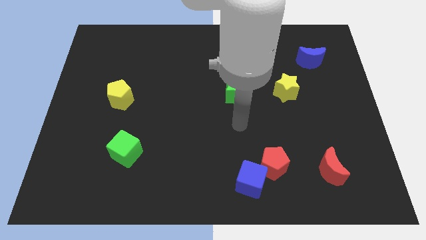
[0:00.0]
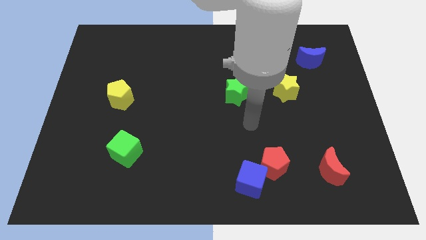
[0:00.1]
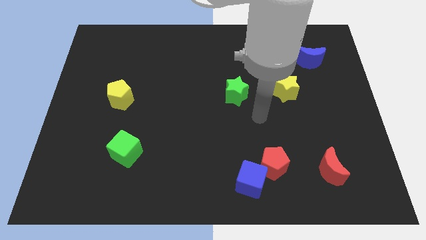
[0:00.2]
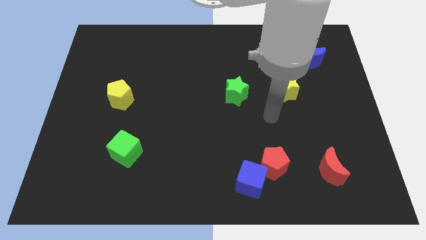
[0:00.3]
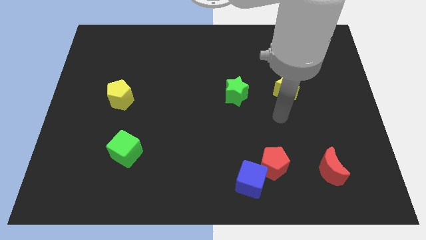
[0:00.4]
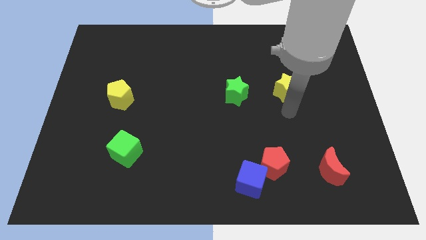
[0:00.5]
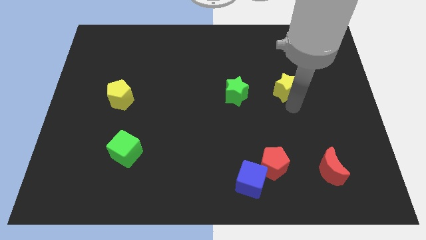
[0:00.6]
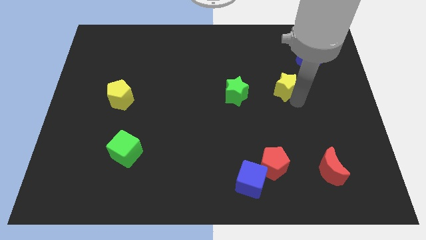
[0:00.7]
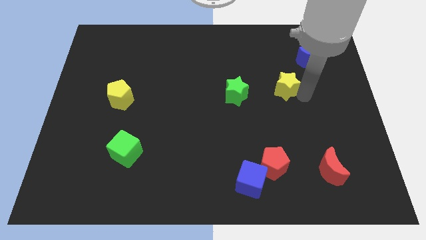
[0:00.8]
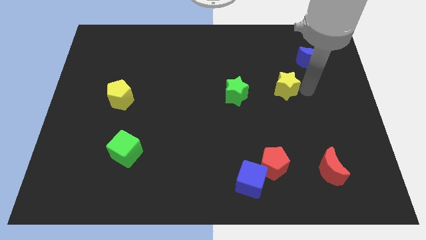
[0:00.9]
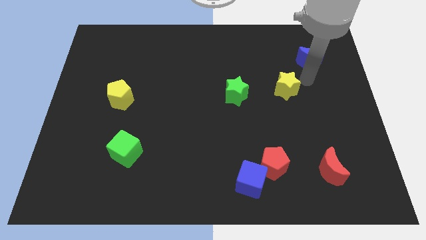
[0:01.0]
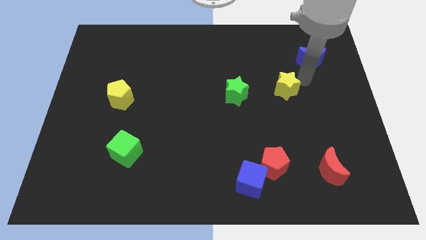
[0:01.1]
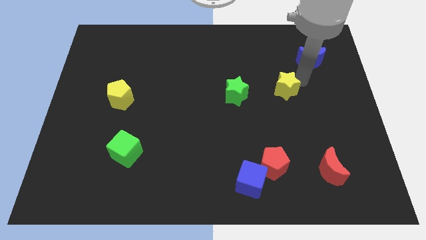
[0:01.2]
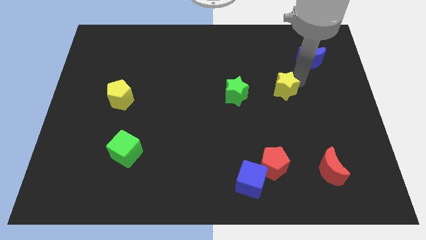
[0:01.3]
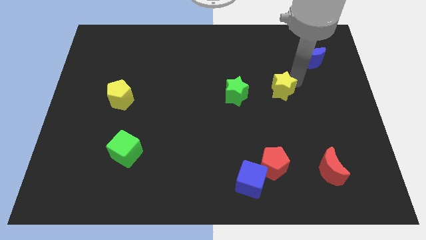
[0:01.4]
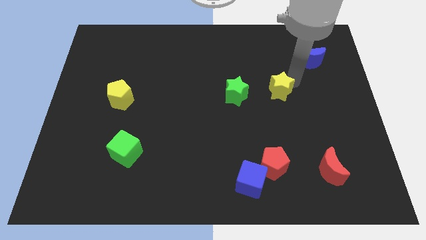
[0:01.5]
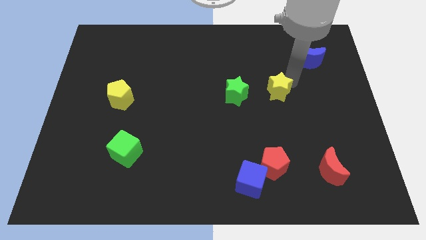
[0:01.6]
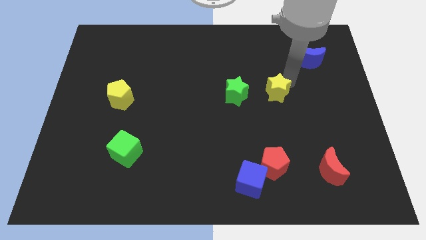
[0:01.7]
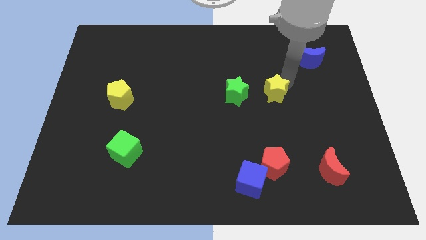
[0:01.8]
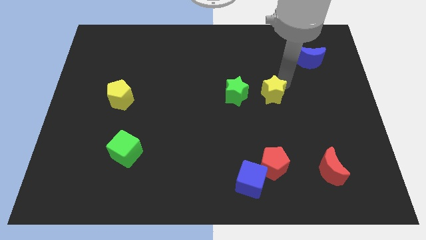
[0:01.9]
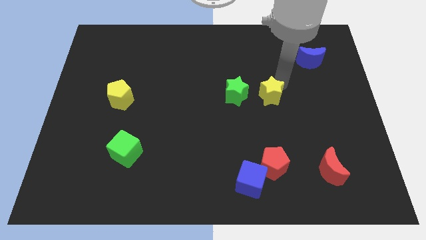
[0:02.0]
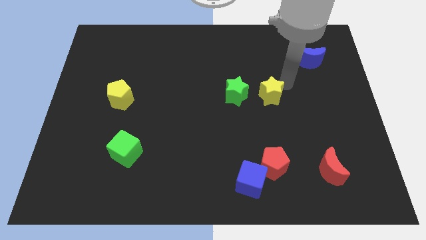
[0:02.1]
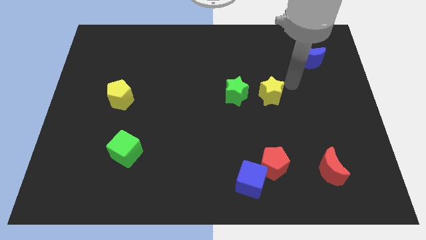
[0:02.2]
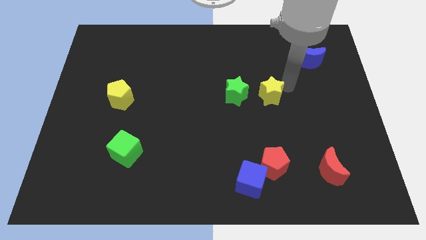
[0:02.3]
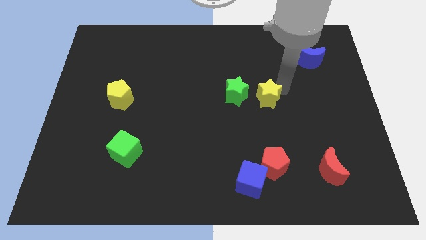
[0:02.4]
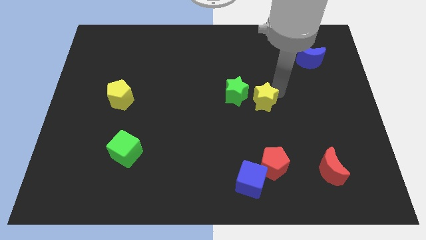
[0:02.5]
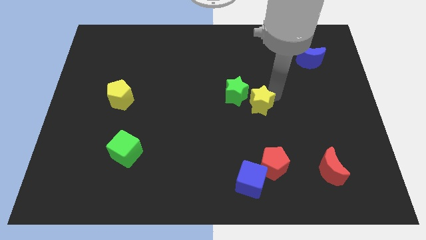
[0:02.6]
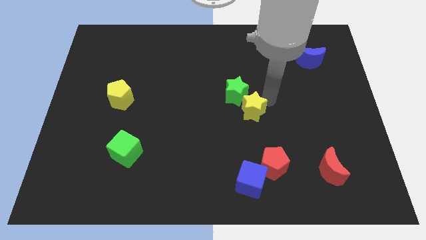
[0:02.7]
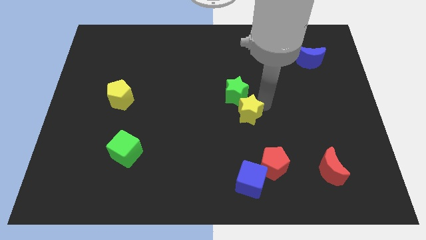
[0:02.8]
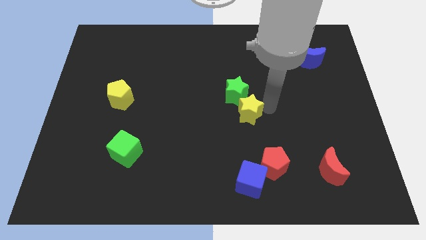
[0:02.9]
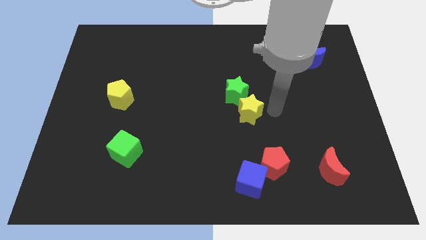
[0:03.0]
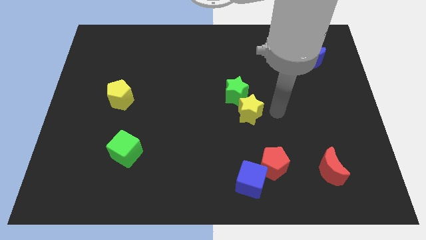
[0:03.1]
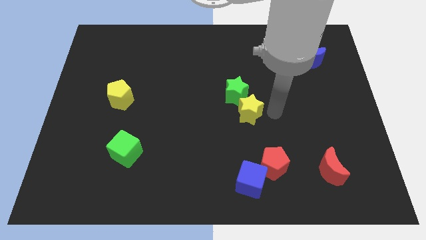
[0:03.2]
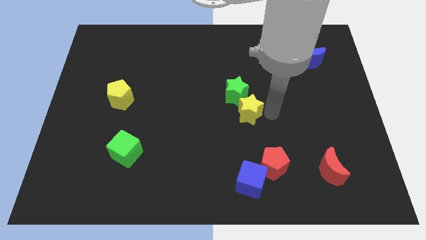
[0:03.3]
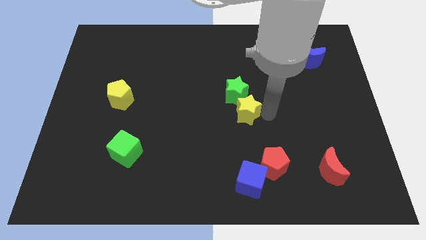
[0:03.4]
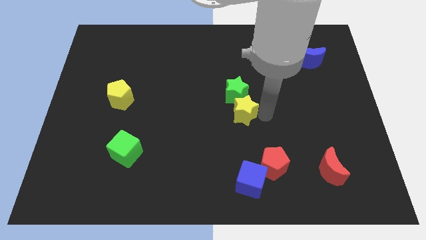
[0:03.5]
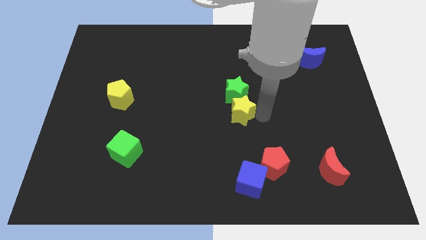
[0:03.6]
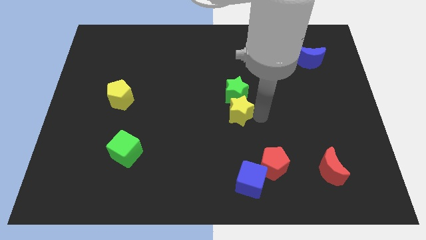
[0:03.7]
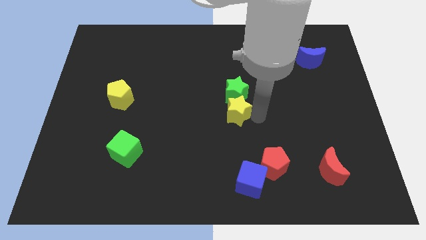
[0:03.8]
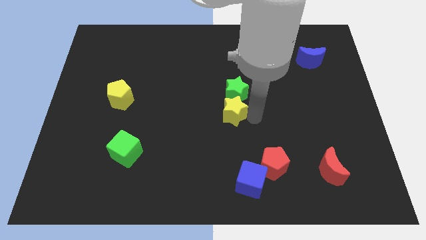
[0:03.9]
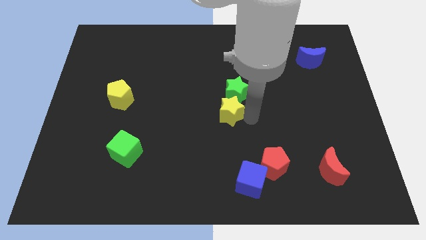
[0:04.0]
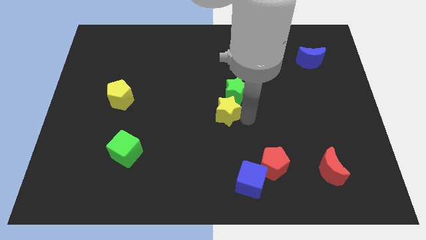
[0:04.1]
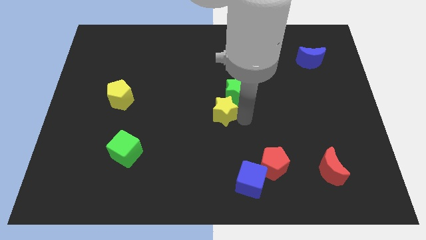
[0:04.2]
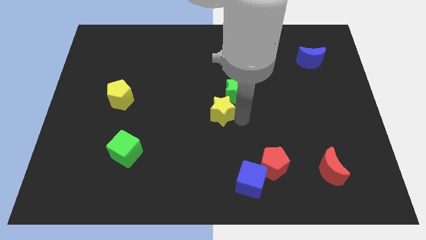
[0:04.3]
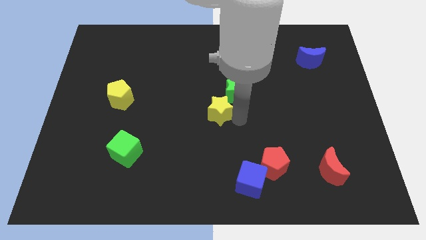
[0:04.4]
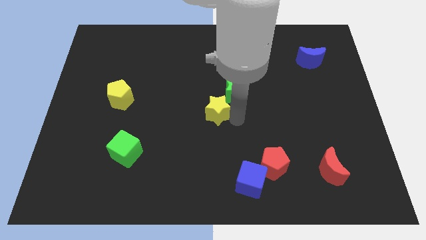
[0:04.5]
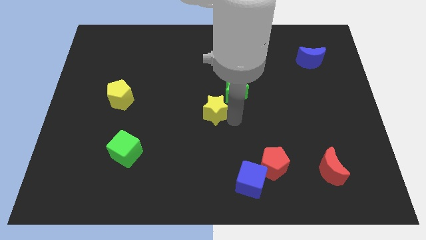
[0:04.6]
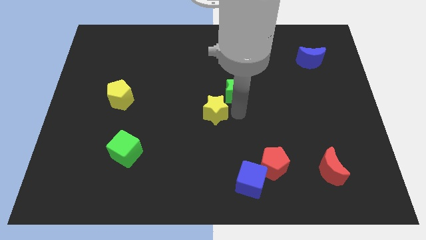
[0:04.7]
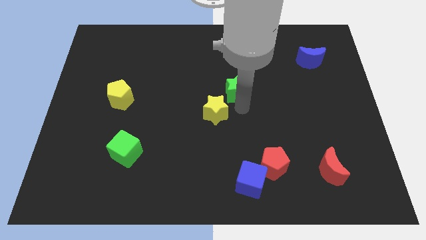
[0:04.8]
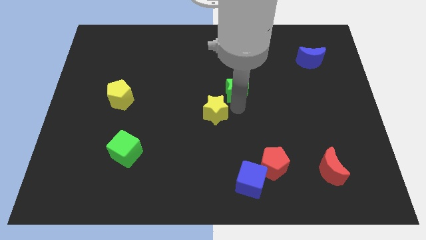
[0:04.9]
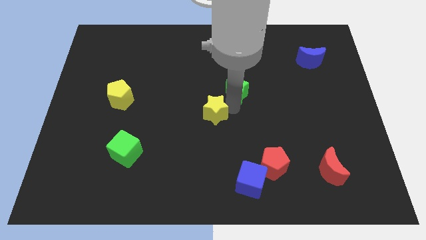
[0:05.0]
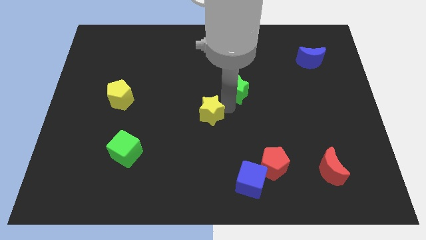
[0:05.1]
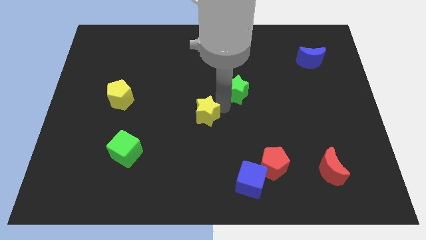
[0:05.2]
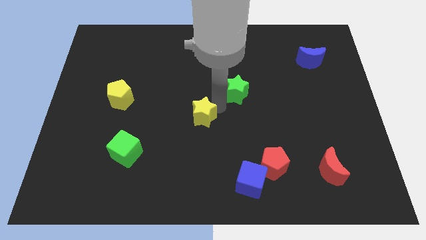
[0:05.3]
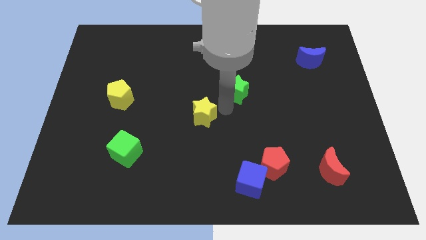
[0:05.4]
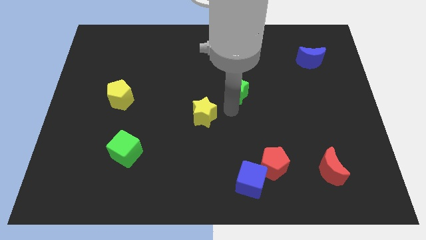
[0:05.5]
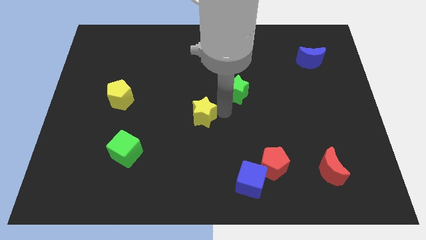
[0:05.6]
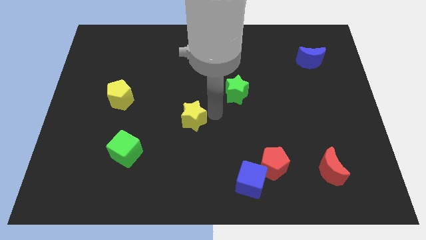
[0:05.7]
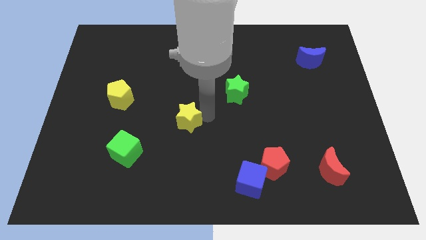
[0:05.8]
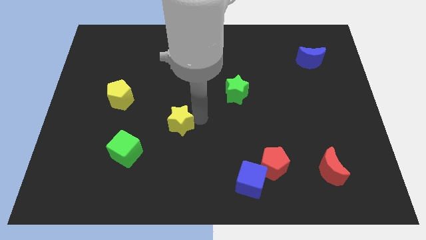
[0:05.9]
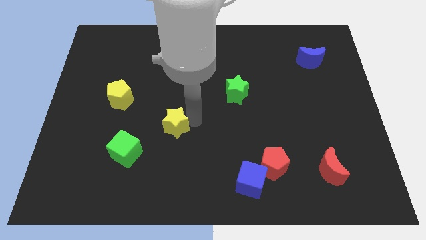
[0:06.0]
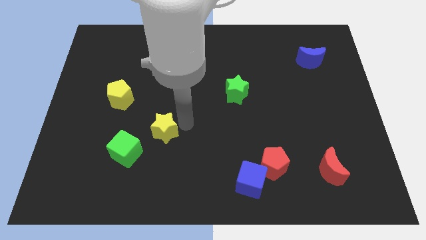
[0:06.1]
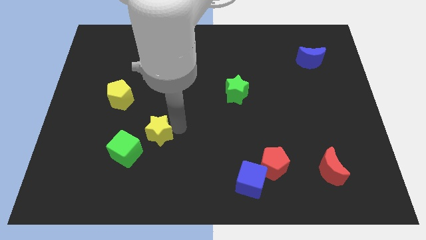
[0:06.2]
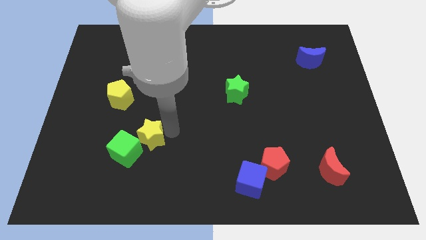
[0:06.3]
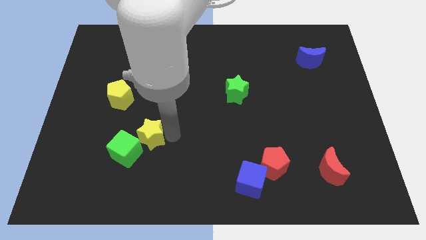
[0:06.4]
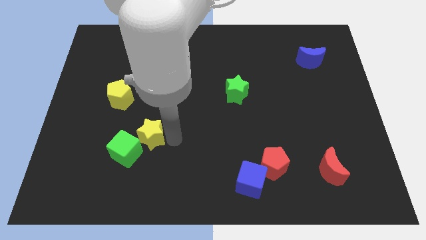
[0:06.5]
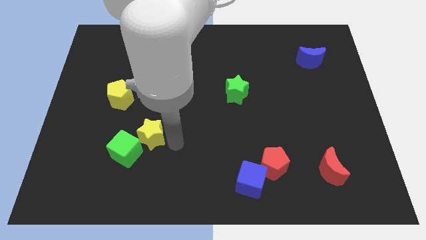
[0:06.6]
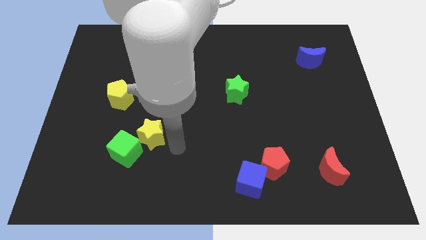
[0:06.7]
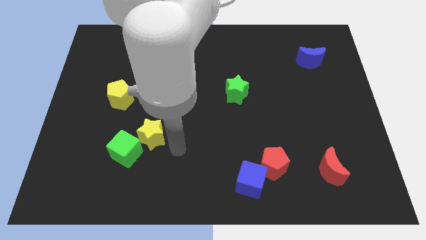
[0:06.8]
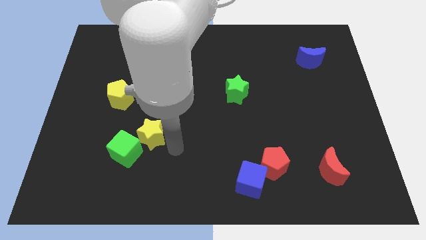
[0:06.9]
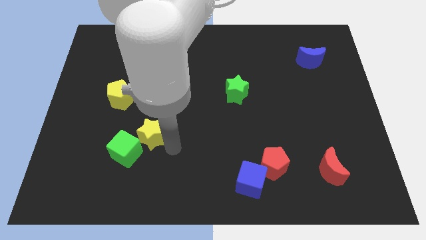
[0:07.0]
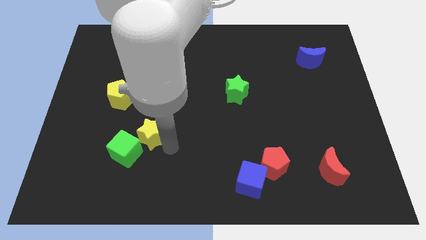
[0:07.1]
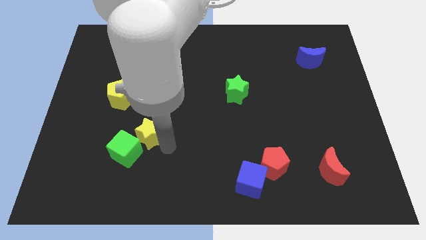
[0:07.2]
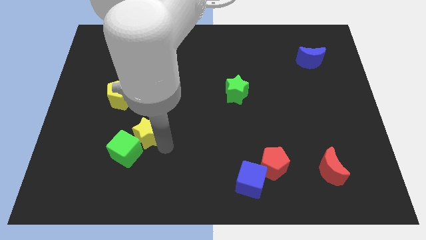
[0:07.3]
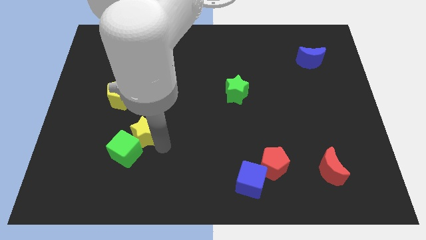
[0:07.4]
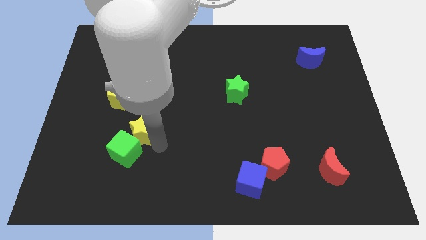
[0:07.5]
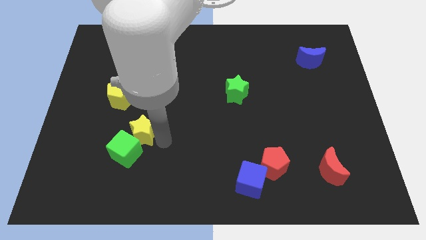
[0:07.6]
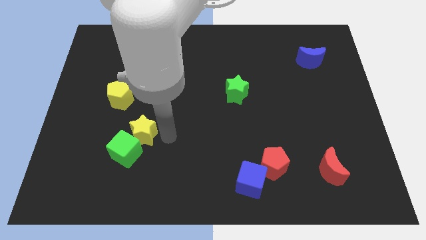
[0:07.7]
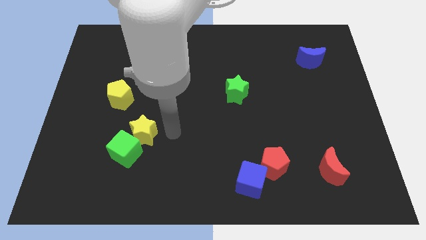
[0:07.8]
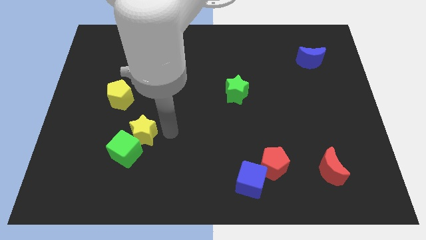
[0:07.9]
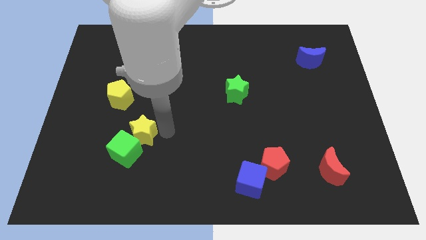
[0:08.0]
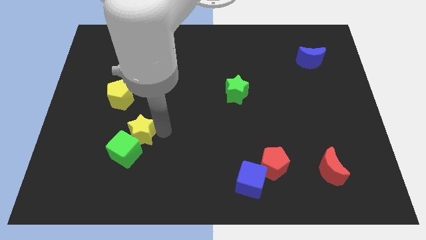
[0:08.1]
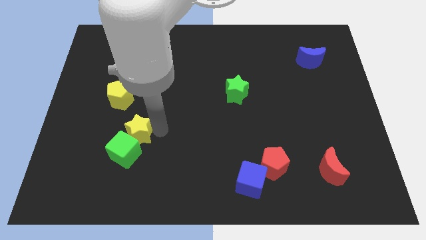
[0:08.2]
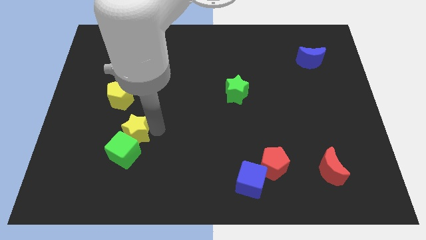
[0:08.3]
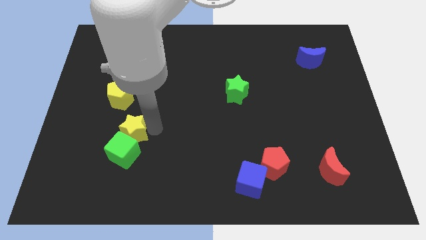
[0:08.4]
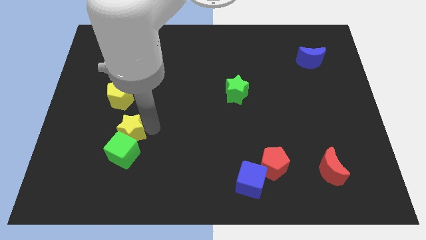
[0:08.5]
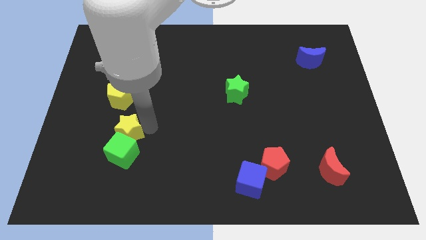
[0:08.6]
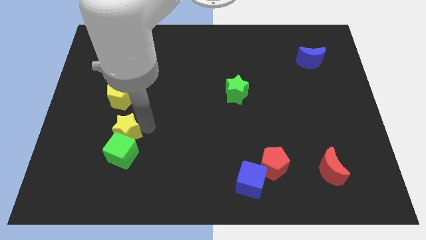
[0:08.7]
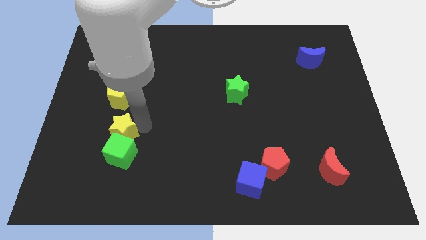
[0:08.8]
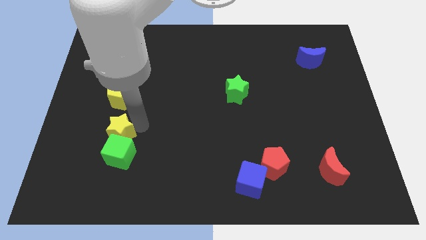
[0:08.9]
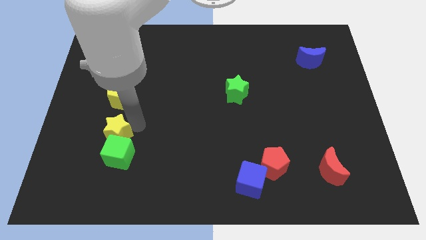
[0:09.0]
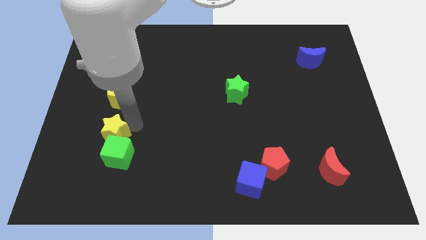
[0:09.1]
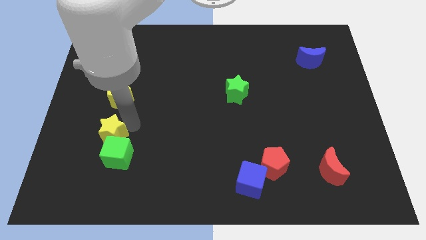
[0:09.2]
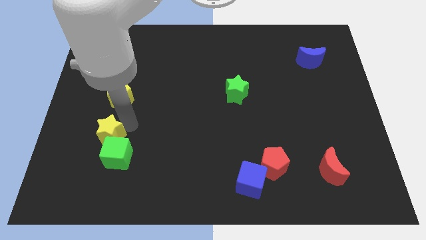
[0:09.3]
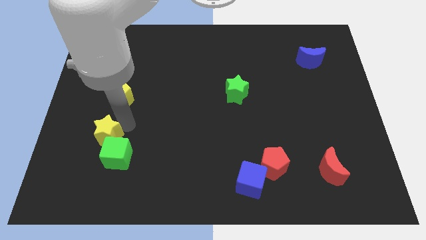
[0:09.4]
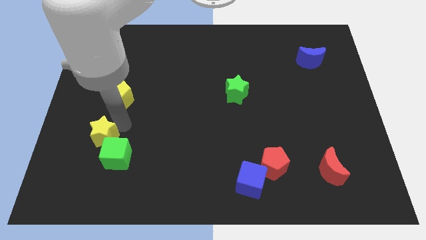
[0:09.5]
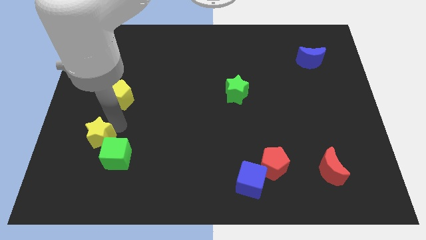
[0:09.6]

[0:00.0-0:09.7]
put the yellow star left of the green cube
